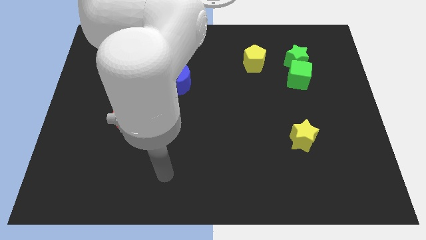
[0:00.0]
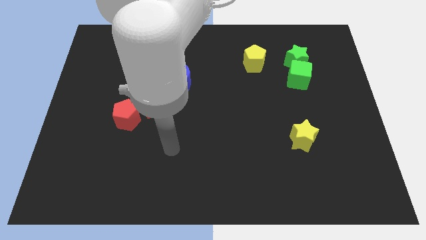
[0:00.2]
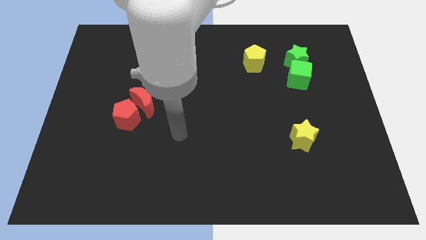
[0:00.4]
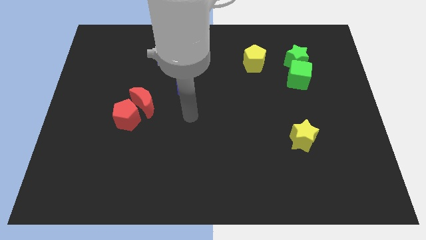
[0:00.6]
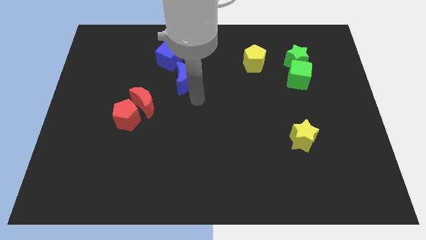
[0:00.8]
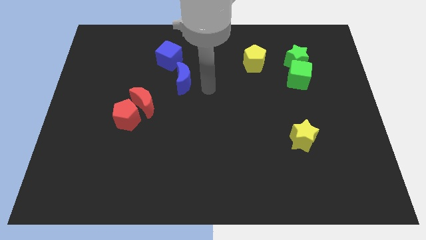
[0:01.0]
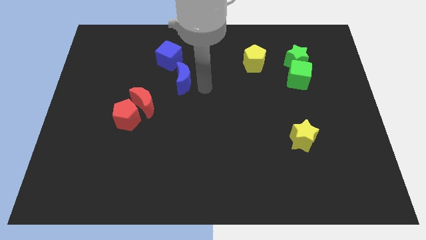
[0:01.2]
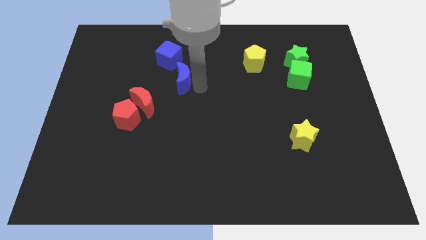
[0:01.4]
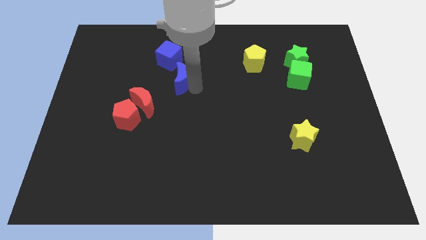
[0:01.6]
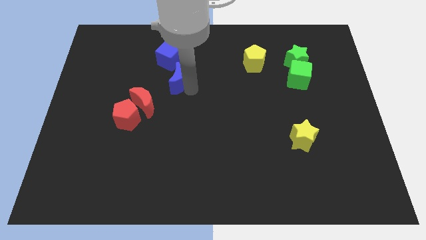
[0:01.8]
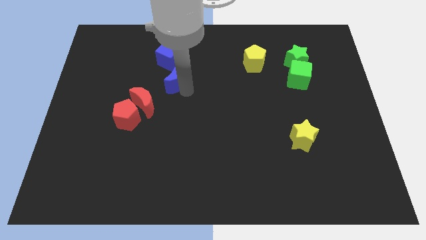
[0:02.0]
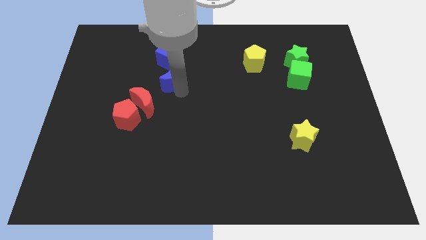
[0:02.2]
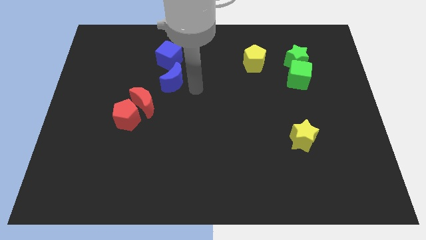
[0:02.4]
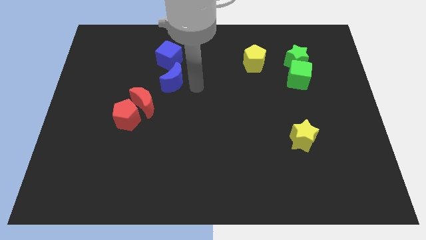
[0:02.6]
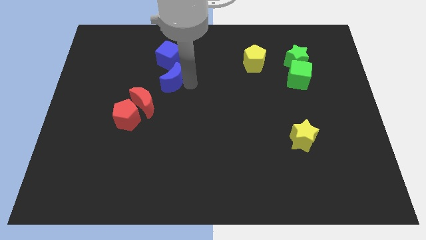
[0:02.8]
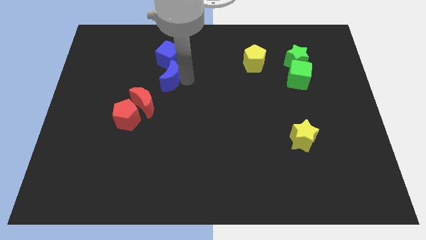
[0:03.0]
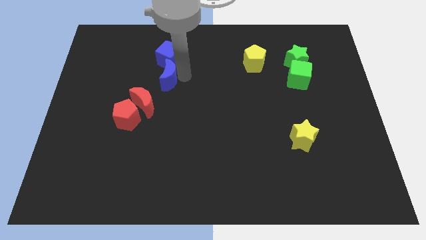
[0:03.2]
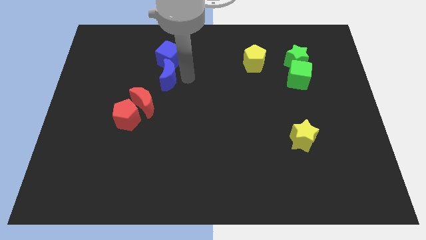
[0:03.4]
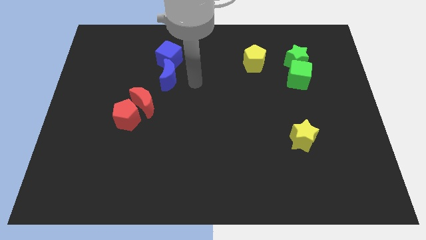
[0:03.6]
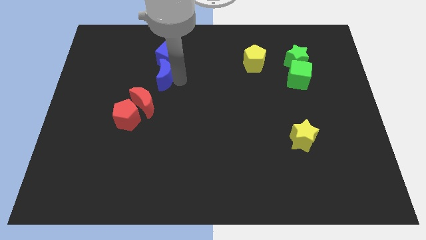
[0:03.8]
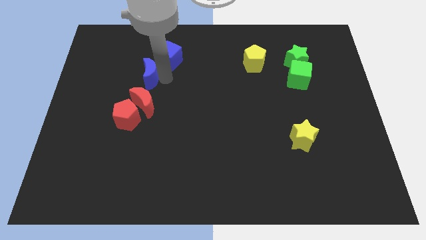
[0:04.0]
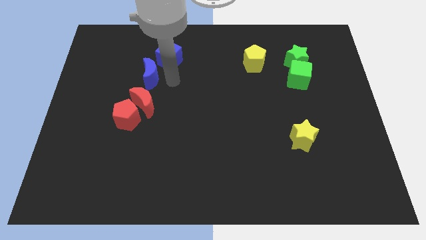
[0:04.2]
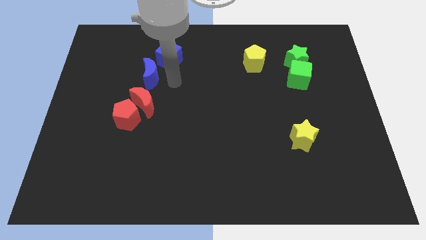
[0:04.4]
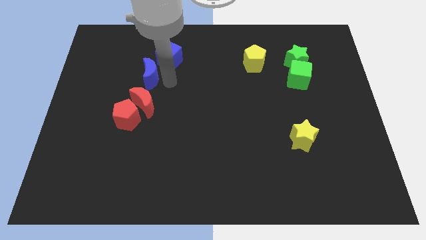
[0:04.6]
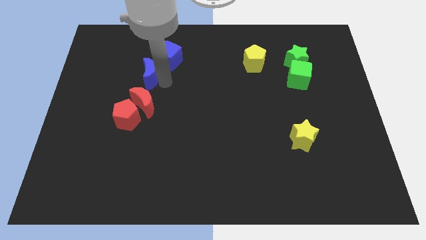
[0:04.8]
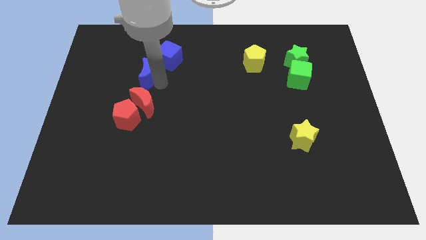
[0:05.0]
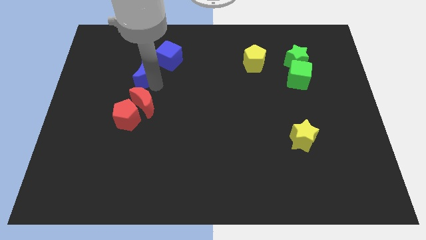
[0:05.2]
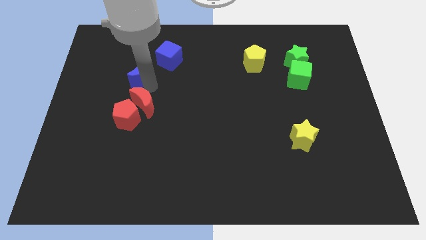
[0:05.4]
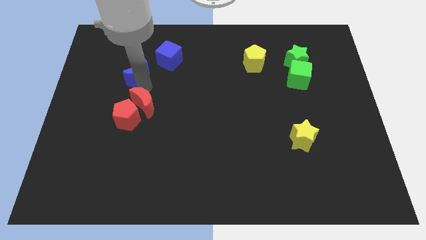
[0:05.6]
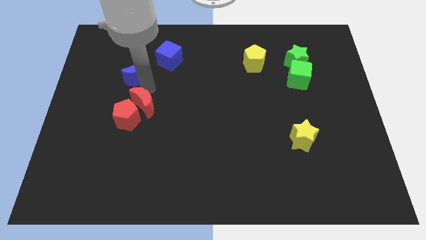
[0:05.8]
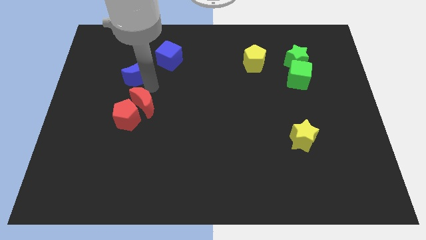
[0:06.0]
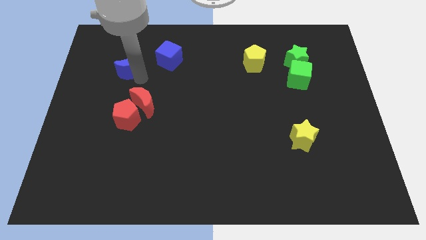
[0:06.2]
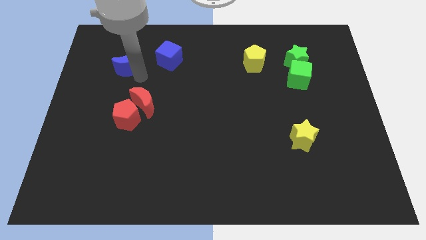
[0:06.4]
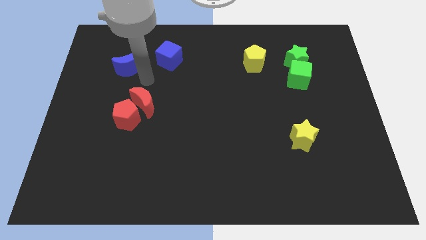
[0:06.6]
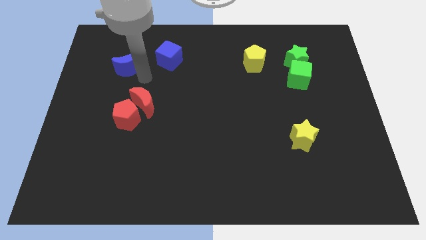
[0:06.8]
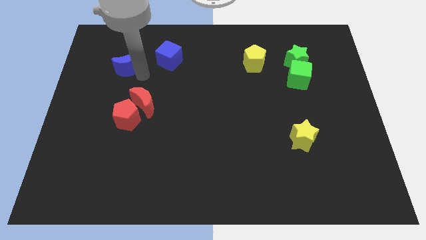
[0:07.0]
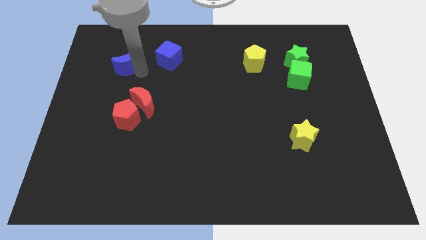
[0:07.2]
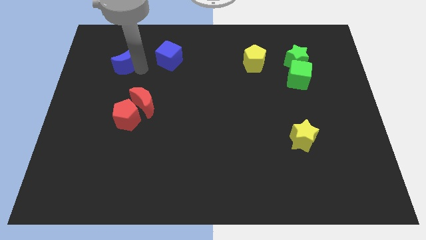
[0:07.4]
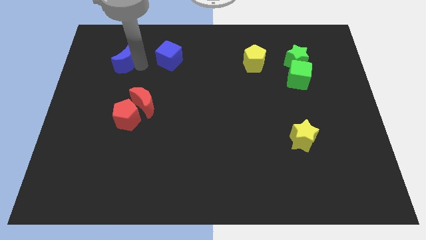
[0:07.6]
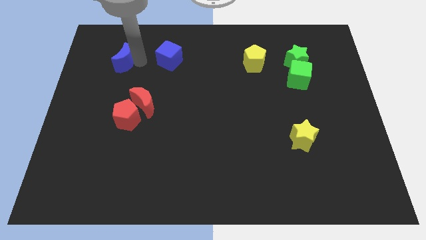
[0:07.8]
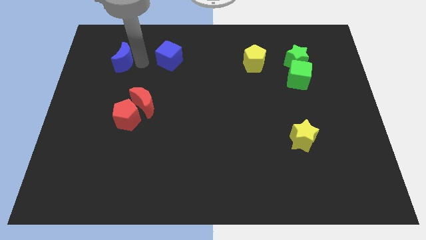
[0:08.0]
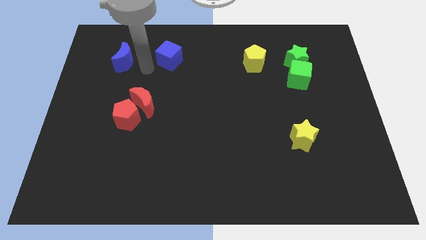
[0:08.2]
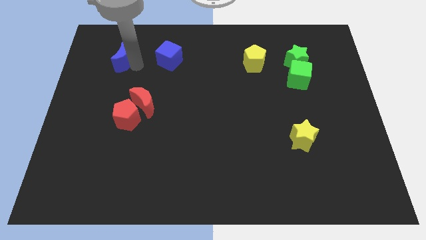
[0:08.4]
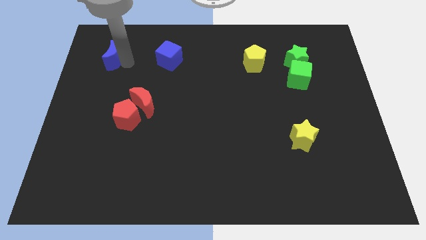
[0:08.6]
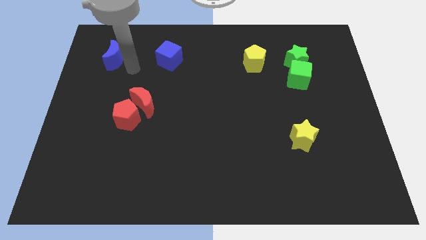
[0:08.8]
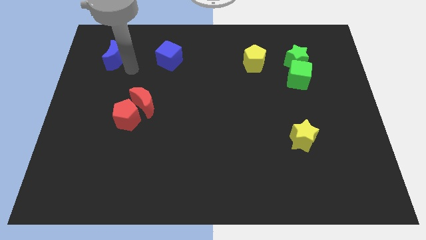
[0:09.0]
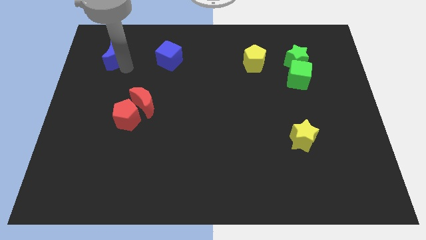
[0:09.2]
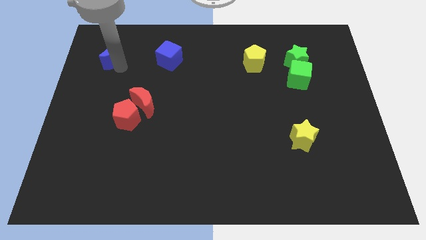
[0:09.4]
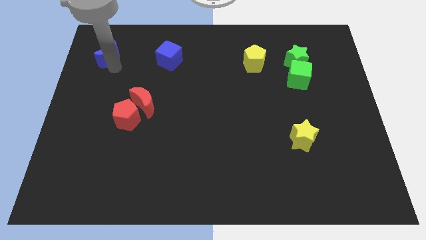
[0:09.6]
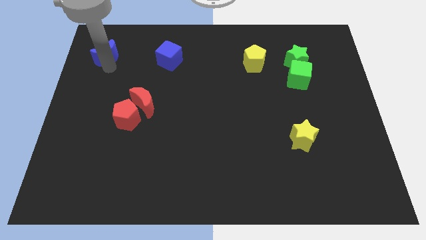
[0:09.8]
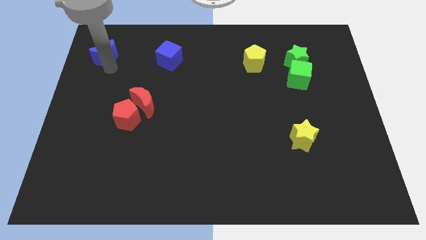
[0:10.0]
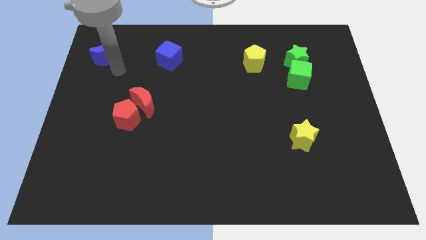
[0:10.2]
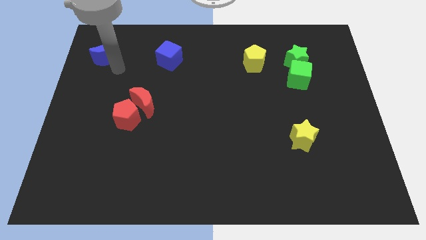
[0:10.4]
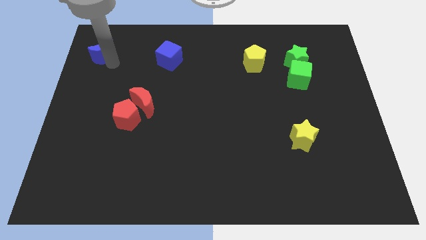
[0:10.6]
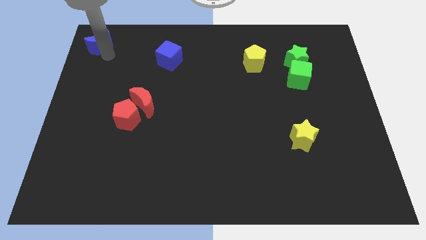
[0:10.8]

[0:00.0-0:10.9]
slide the blue moon to the top left of the board

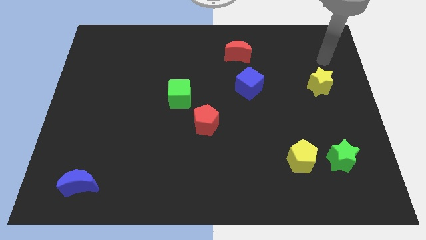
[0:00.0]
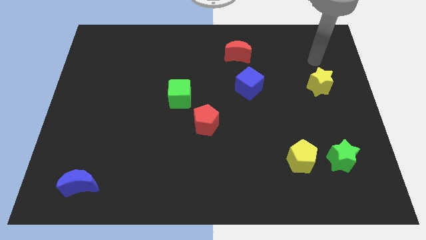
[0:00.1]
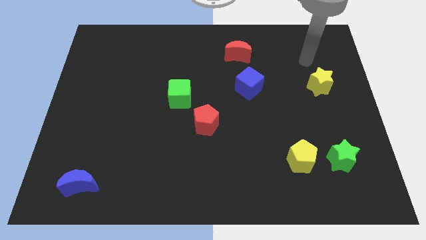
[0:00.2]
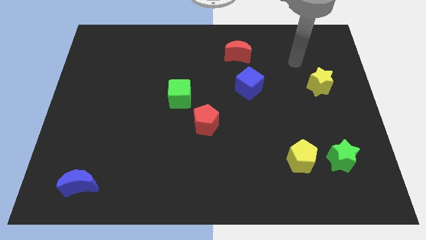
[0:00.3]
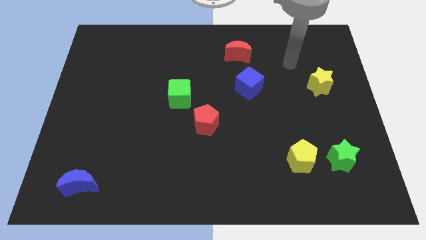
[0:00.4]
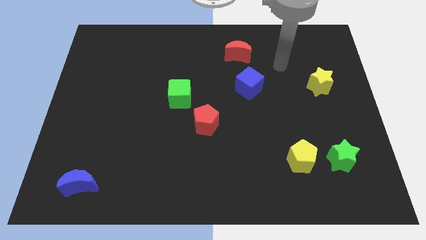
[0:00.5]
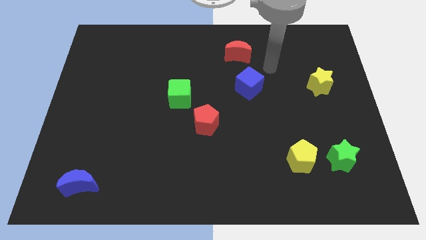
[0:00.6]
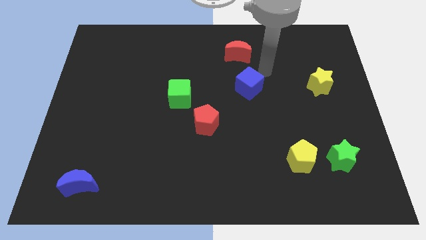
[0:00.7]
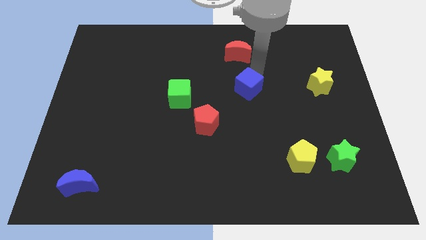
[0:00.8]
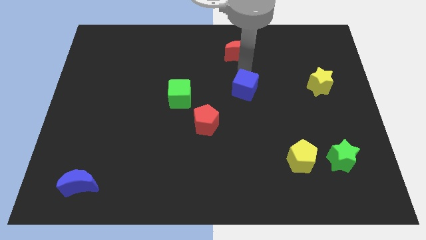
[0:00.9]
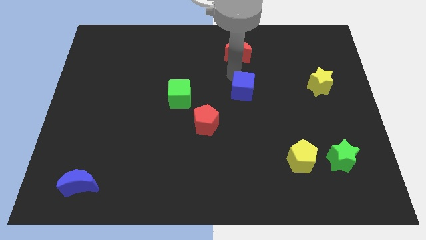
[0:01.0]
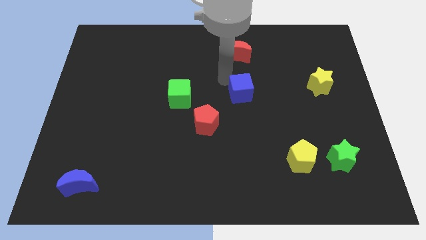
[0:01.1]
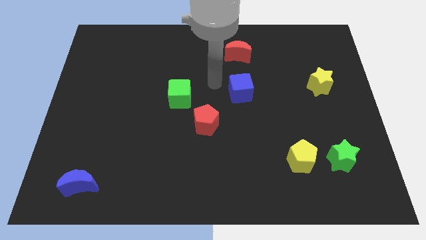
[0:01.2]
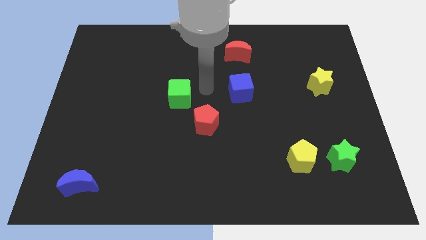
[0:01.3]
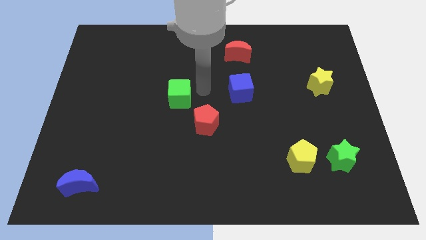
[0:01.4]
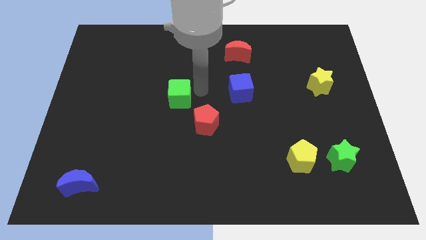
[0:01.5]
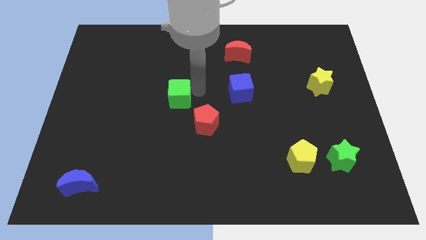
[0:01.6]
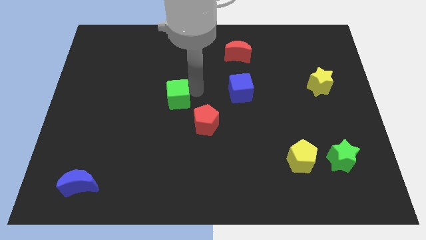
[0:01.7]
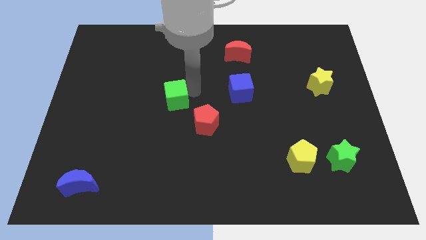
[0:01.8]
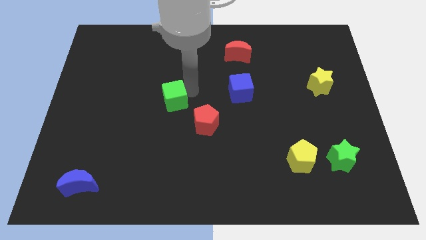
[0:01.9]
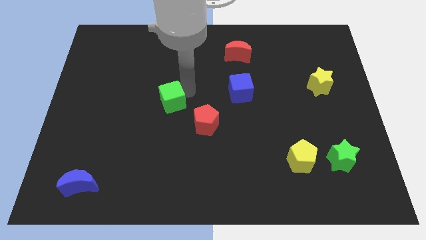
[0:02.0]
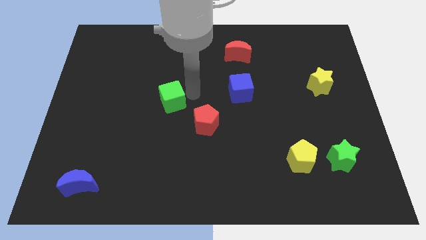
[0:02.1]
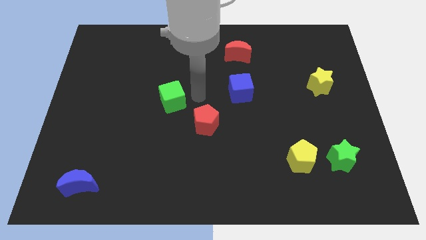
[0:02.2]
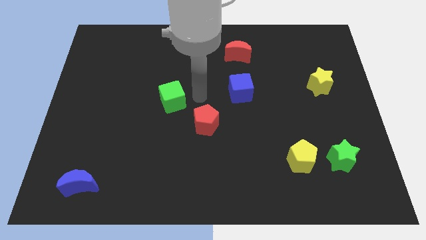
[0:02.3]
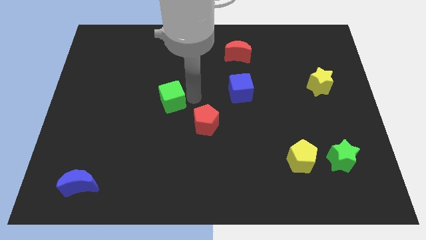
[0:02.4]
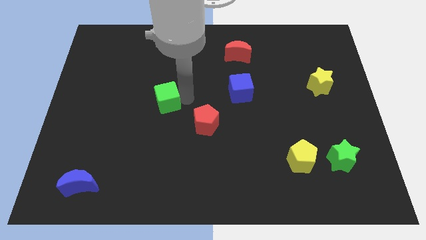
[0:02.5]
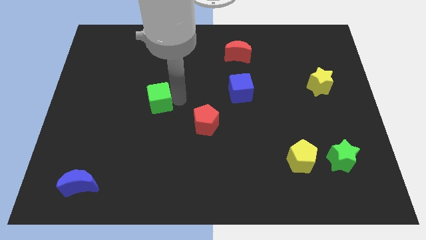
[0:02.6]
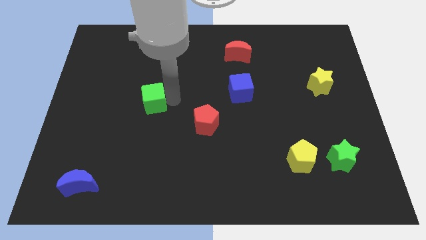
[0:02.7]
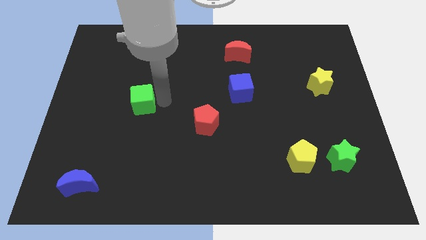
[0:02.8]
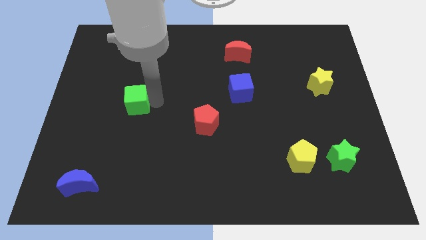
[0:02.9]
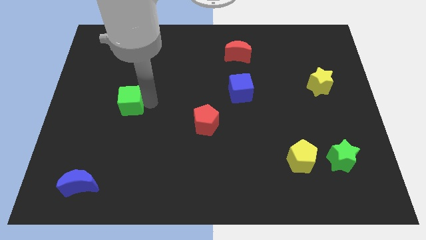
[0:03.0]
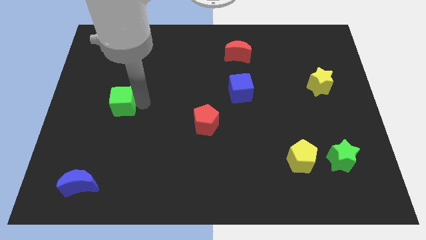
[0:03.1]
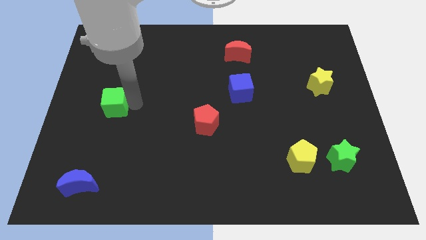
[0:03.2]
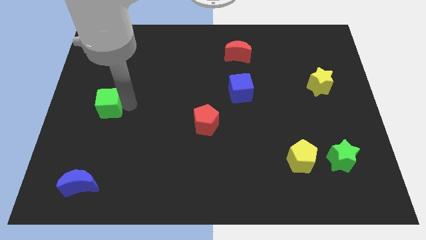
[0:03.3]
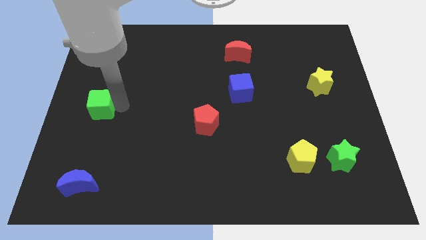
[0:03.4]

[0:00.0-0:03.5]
slide the green cube to the center left
